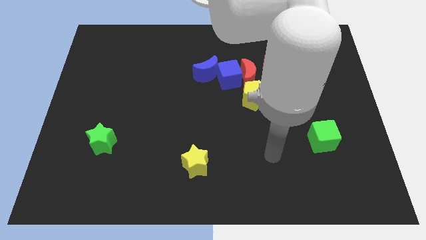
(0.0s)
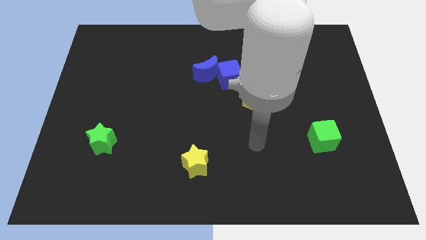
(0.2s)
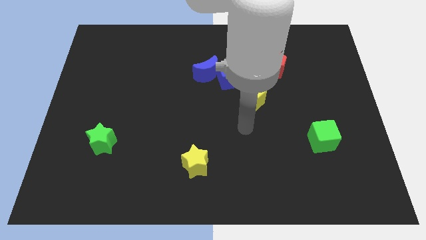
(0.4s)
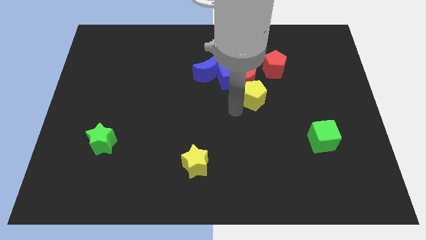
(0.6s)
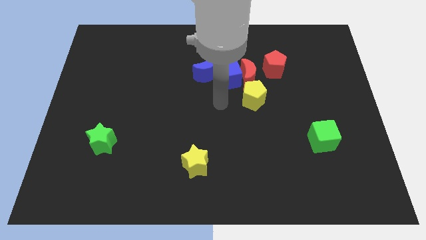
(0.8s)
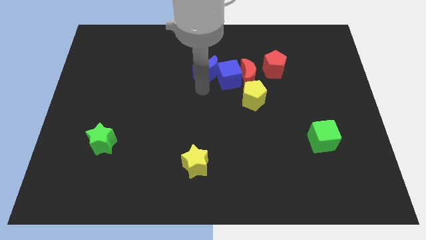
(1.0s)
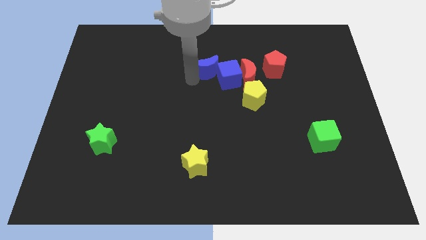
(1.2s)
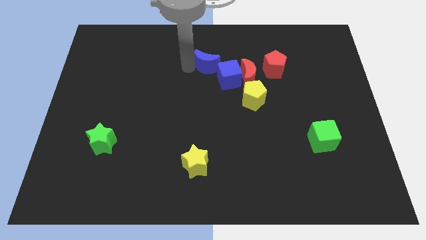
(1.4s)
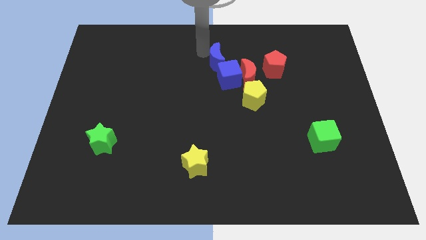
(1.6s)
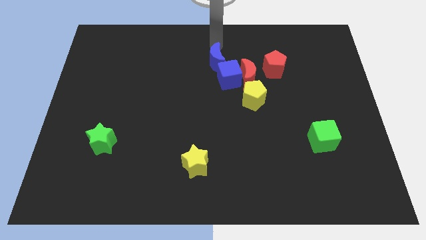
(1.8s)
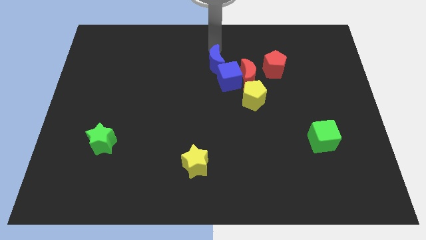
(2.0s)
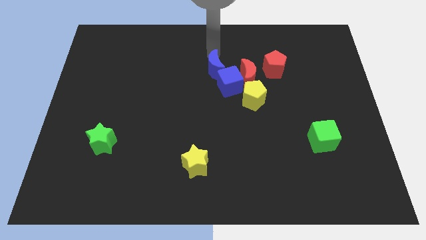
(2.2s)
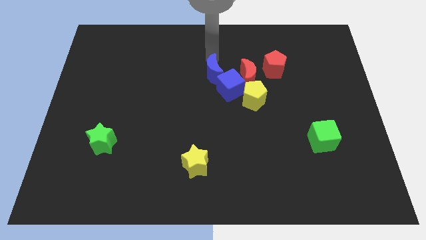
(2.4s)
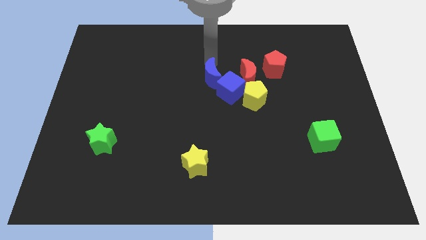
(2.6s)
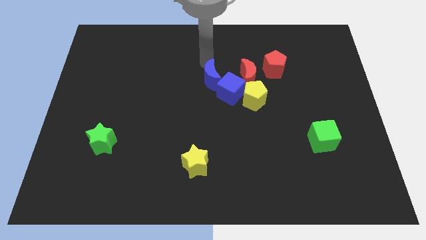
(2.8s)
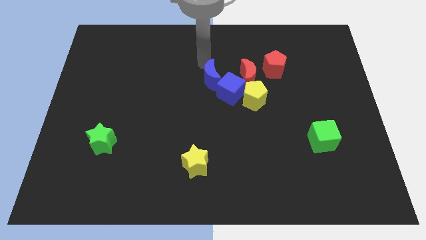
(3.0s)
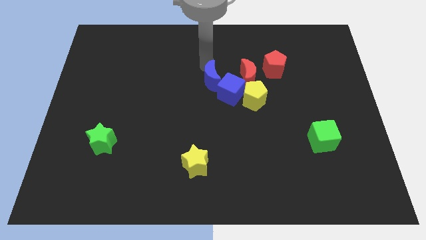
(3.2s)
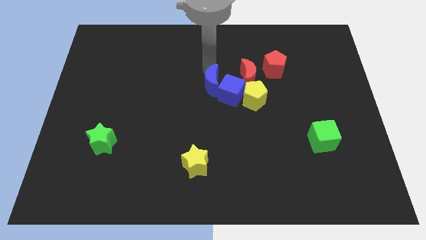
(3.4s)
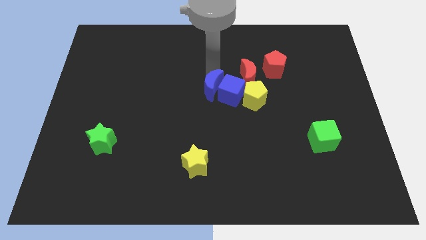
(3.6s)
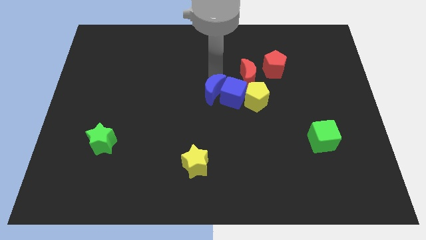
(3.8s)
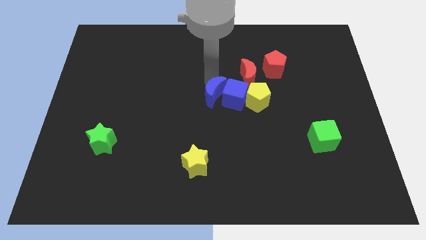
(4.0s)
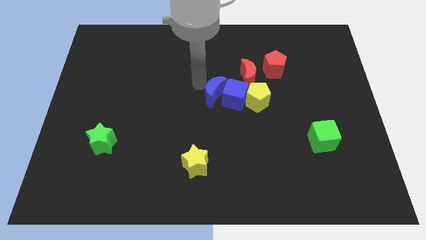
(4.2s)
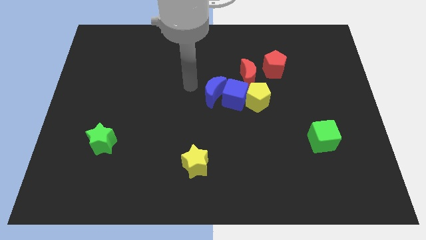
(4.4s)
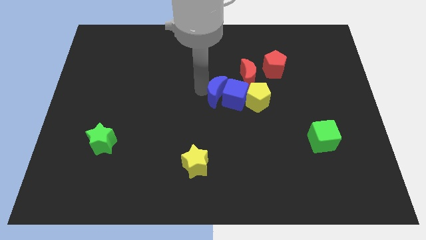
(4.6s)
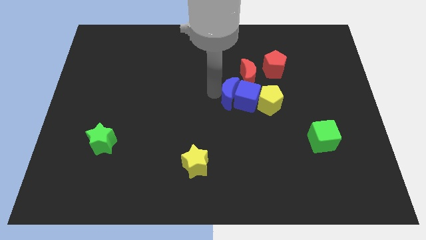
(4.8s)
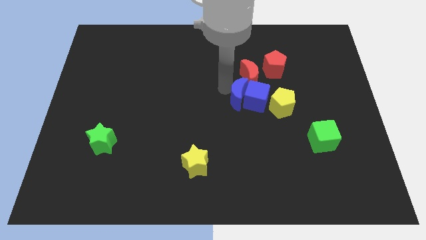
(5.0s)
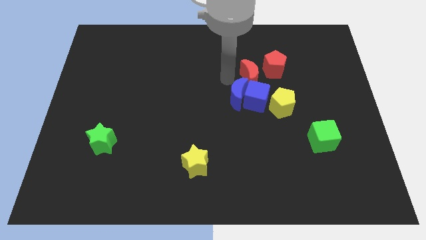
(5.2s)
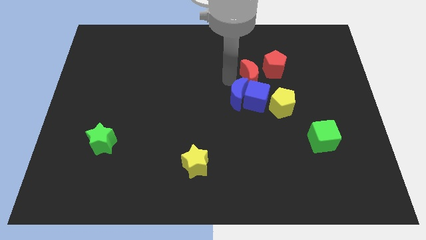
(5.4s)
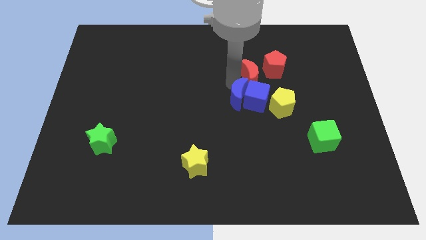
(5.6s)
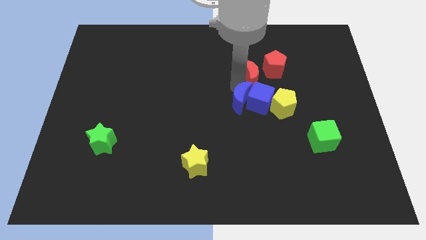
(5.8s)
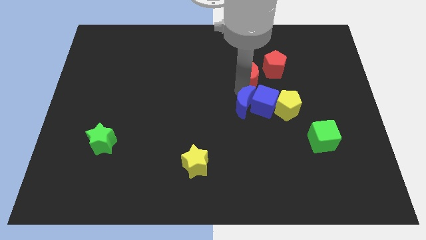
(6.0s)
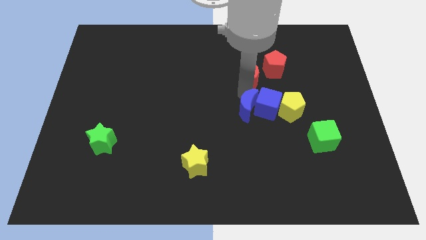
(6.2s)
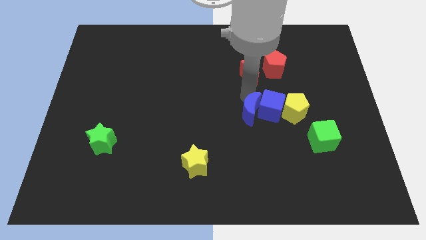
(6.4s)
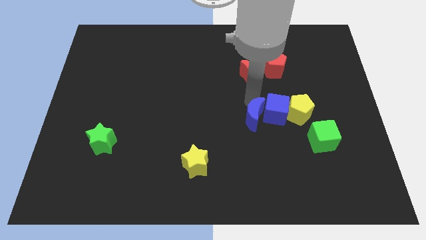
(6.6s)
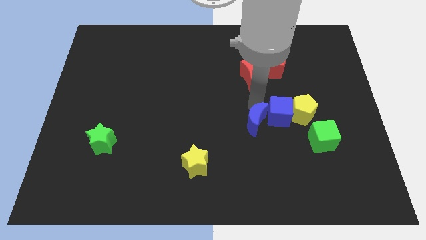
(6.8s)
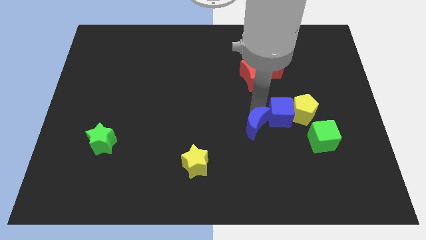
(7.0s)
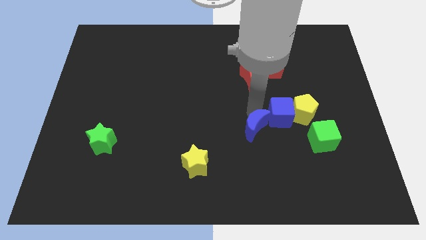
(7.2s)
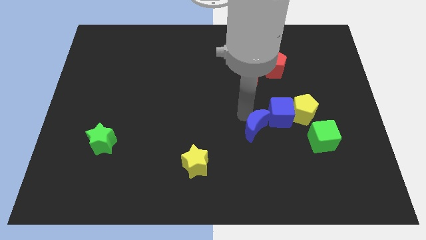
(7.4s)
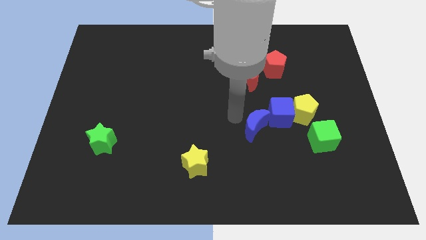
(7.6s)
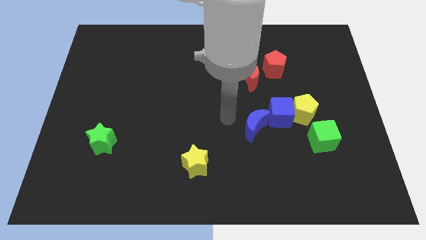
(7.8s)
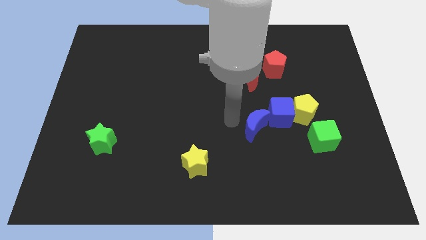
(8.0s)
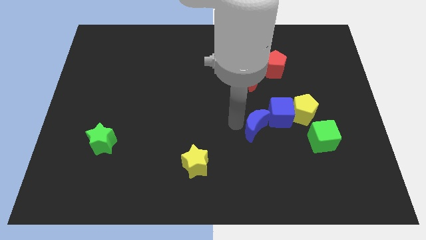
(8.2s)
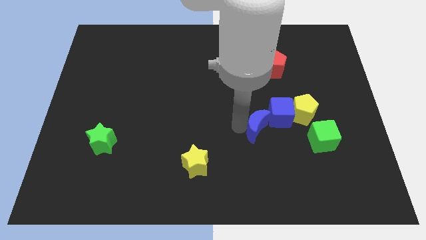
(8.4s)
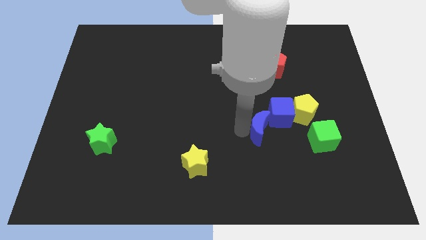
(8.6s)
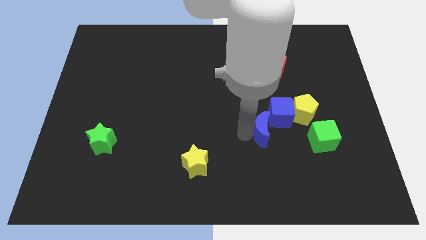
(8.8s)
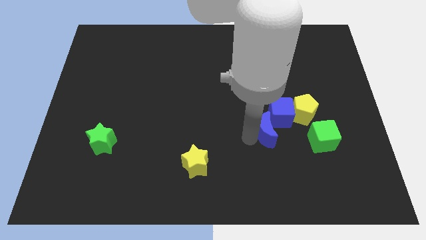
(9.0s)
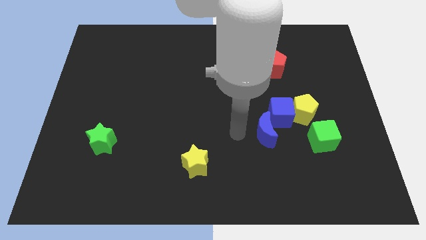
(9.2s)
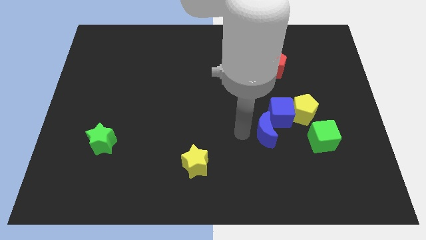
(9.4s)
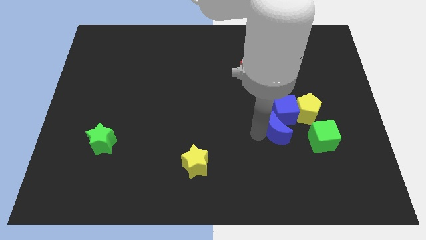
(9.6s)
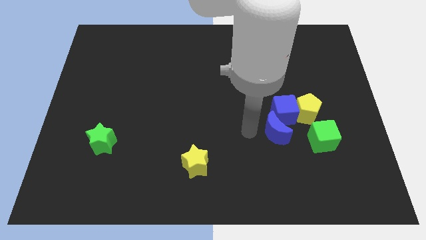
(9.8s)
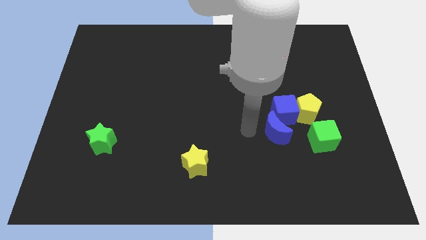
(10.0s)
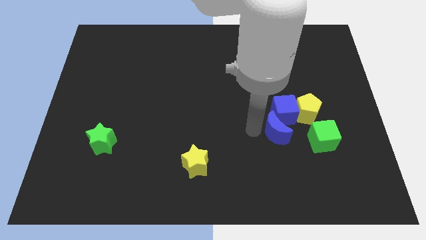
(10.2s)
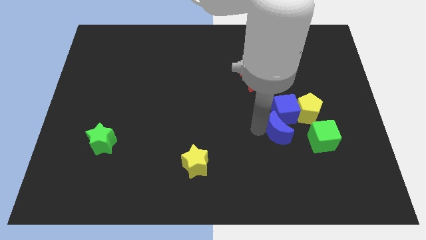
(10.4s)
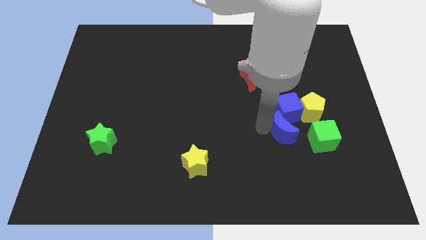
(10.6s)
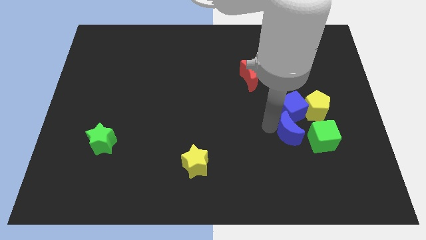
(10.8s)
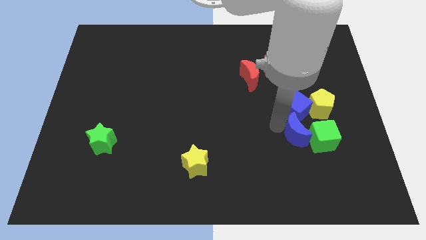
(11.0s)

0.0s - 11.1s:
slide the blue moon close to the green cube

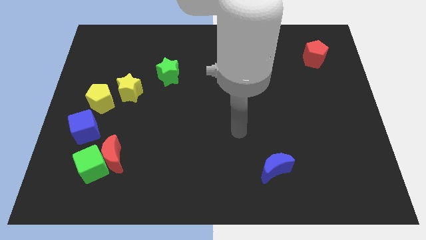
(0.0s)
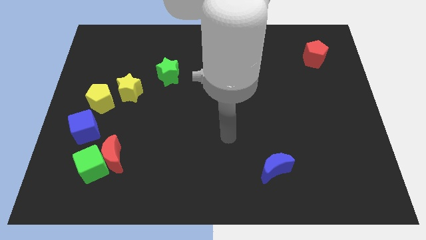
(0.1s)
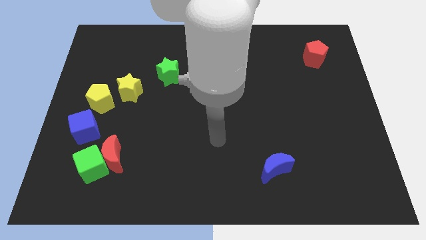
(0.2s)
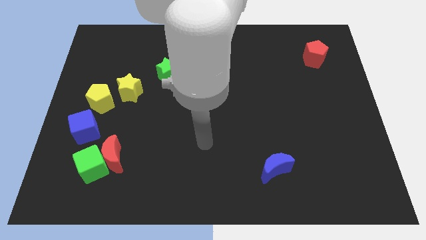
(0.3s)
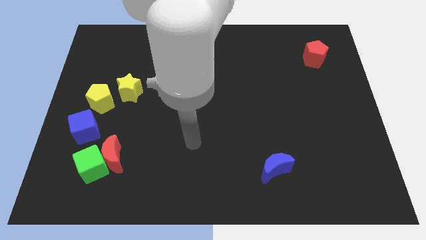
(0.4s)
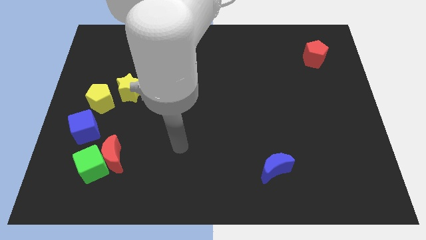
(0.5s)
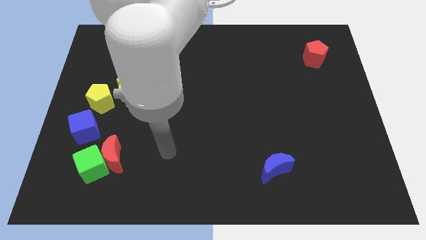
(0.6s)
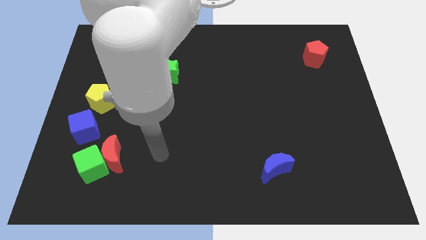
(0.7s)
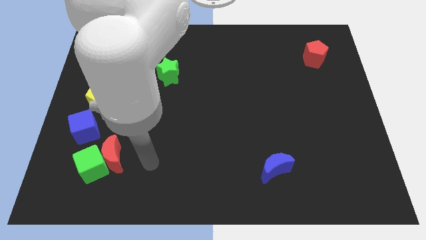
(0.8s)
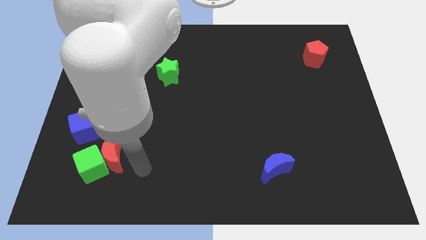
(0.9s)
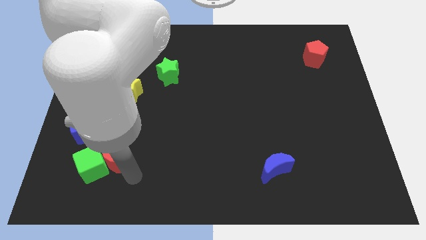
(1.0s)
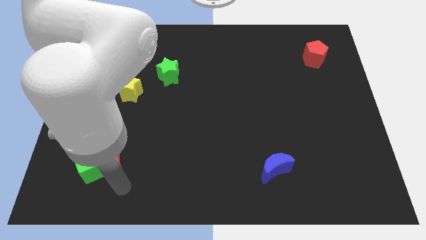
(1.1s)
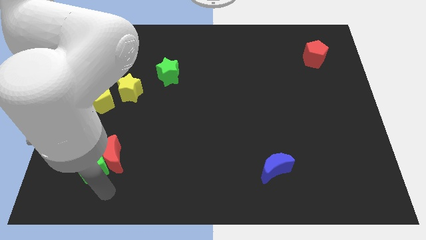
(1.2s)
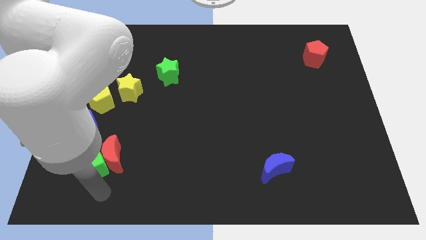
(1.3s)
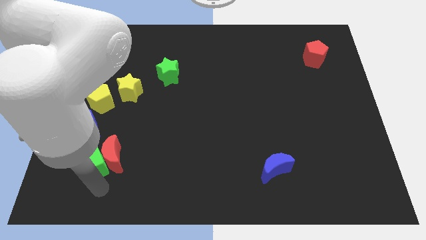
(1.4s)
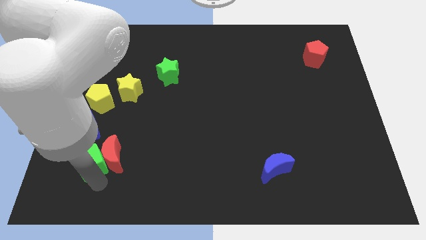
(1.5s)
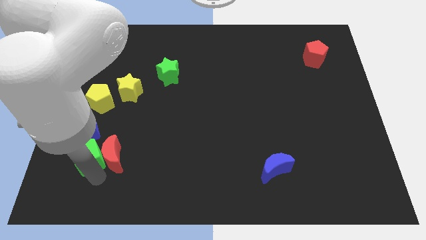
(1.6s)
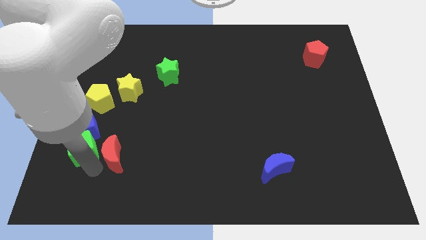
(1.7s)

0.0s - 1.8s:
put the green cube next to the blue cube
